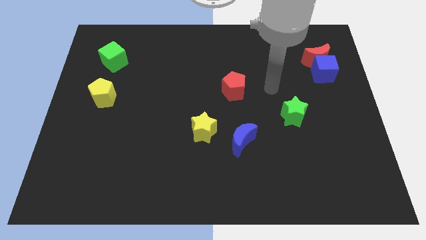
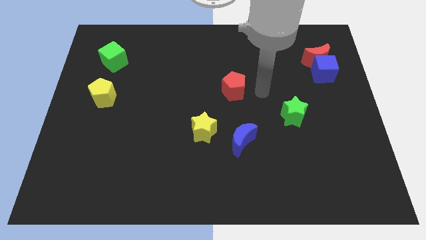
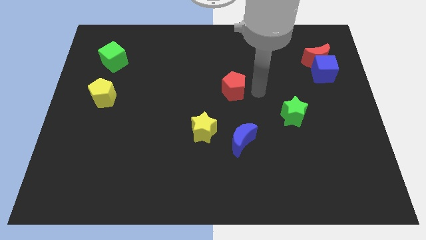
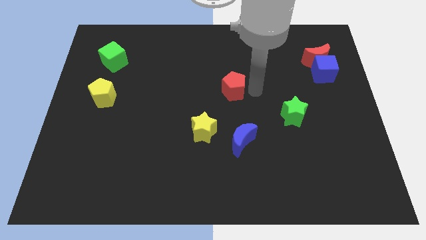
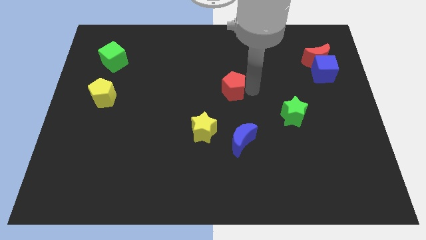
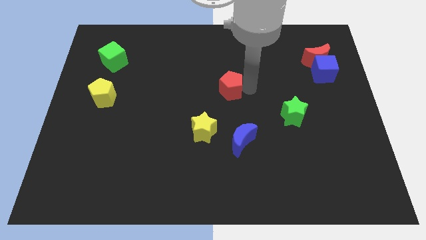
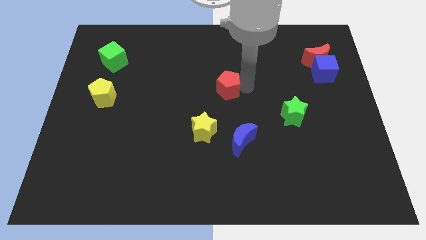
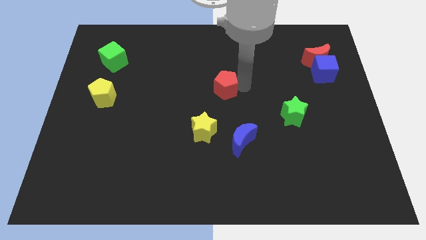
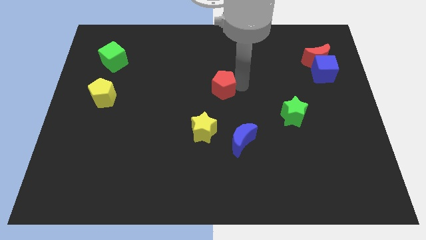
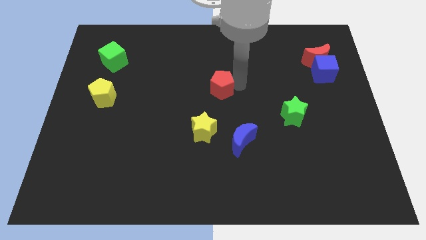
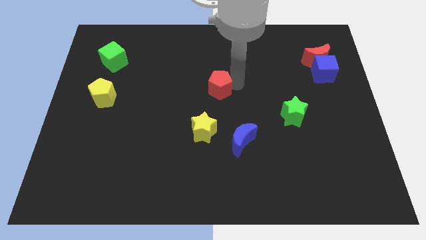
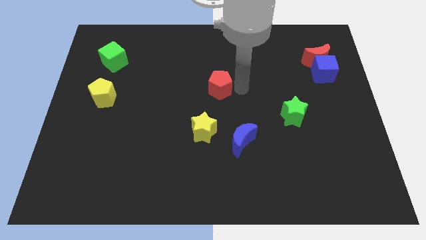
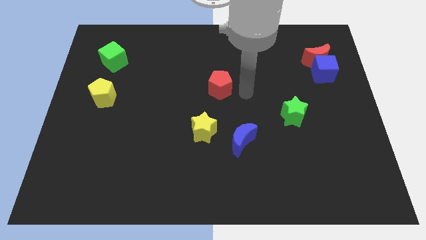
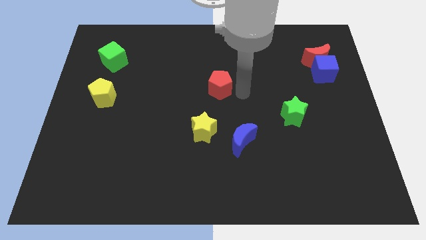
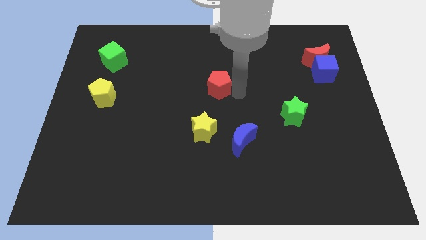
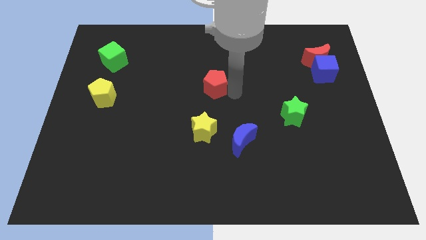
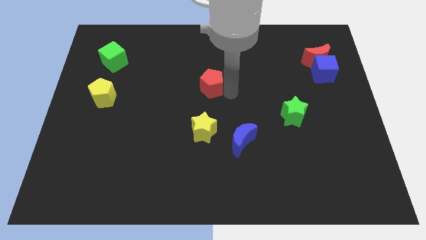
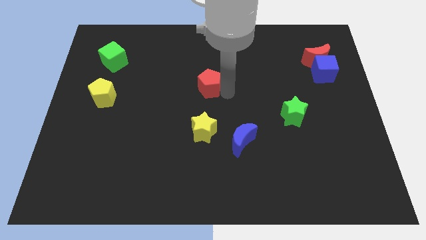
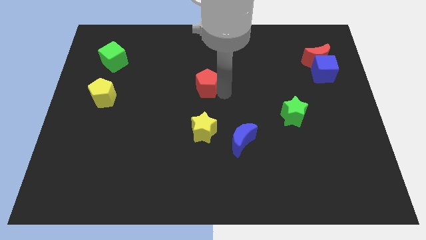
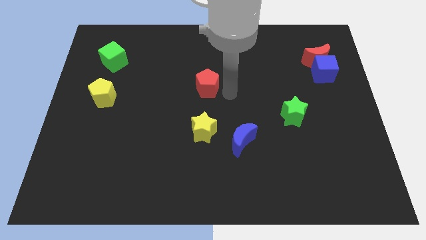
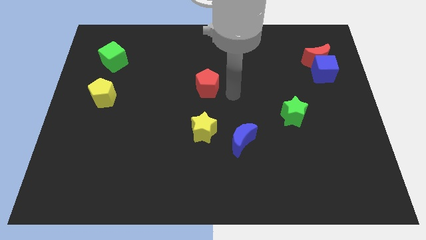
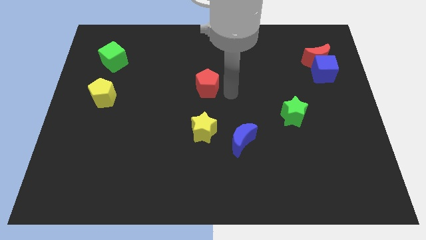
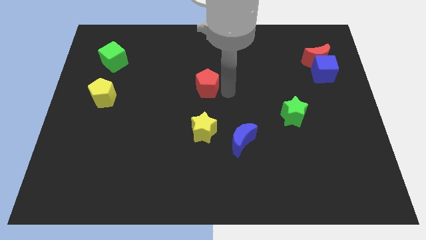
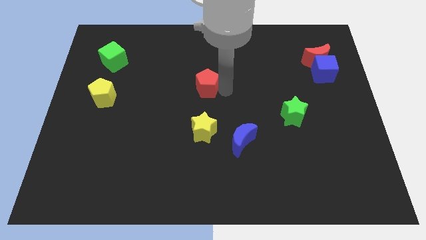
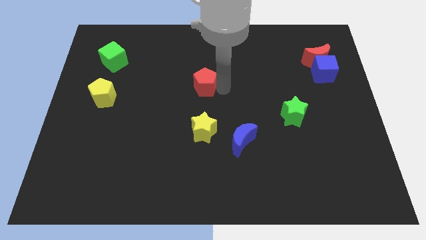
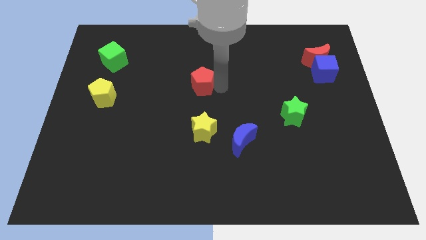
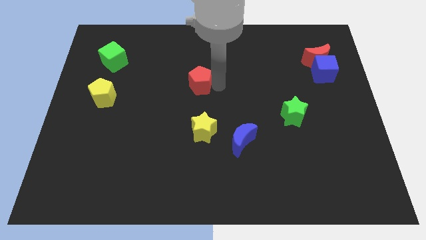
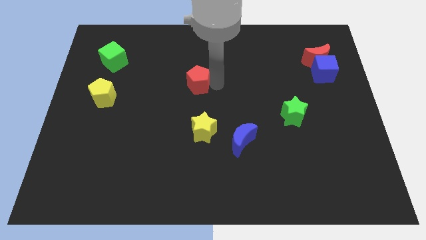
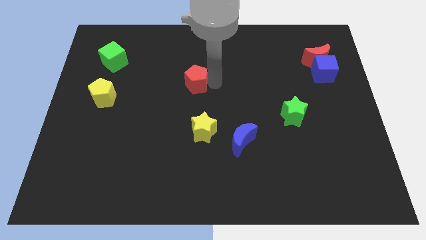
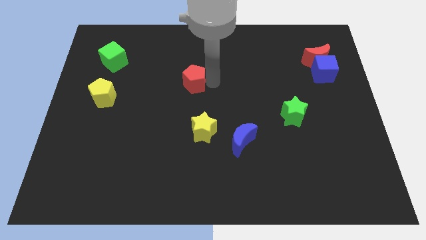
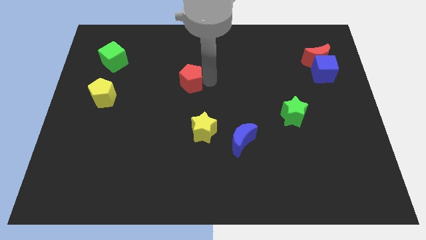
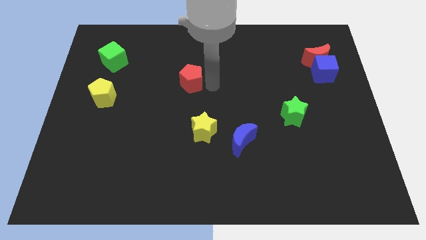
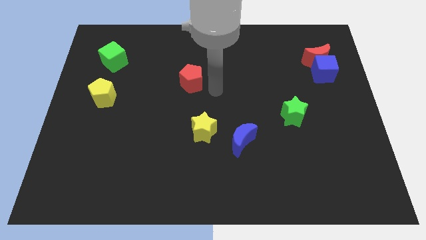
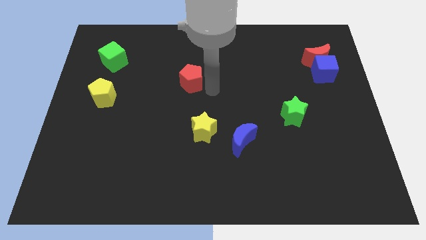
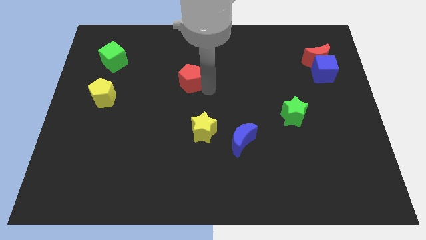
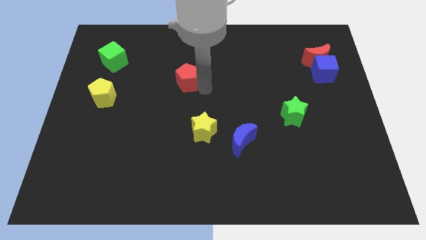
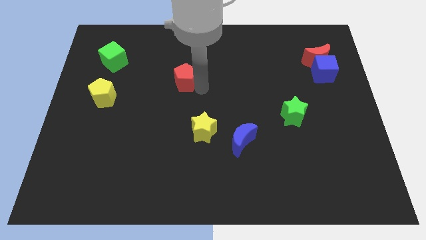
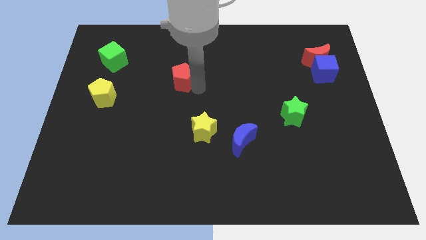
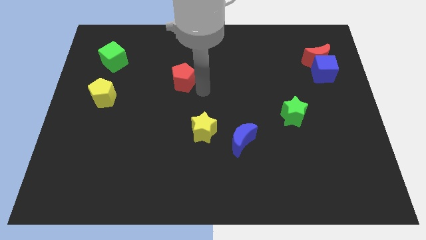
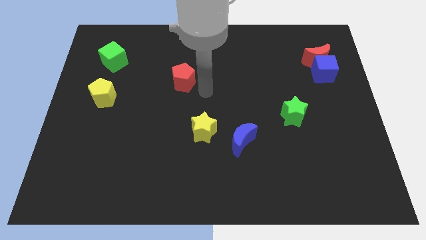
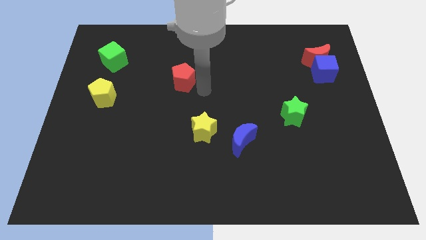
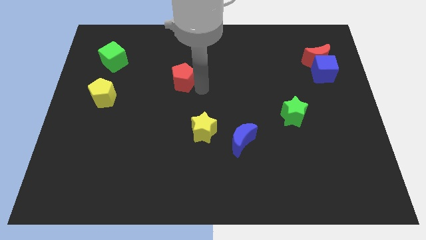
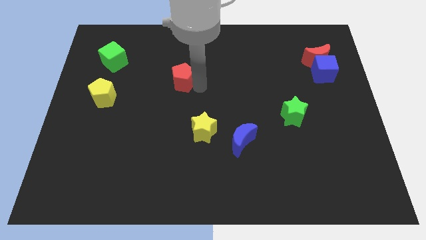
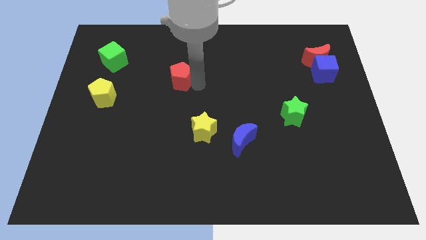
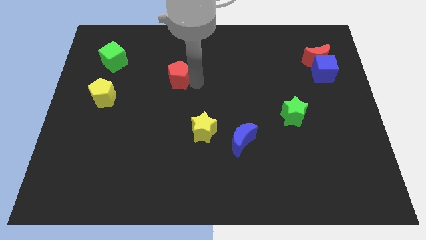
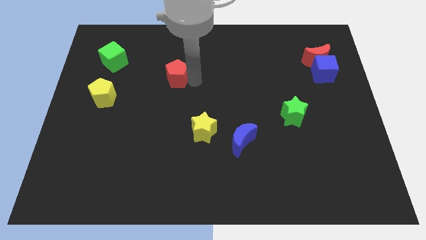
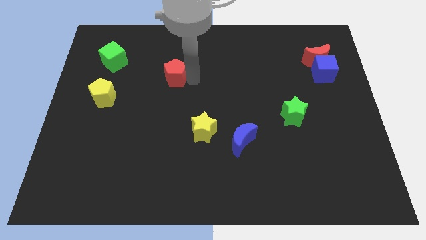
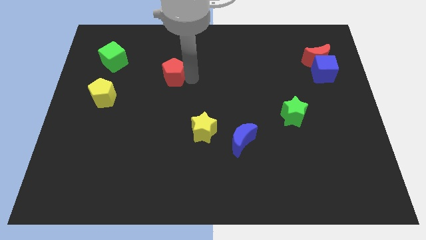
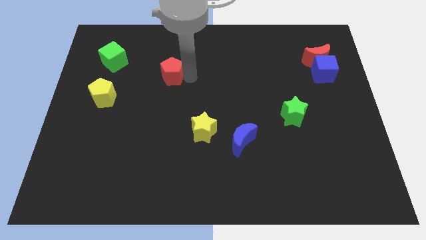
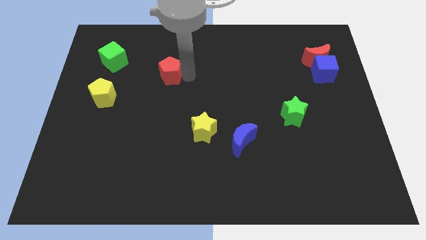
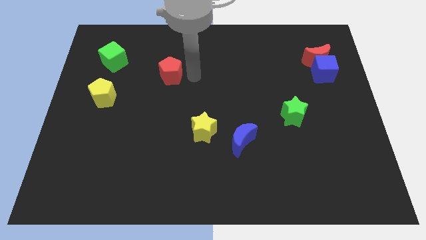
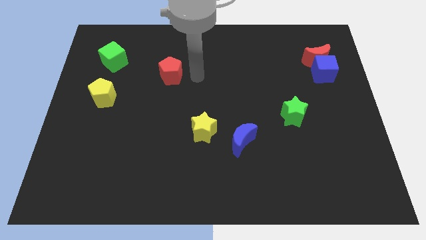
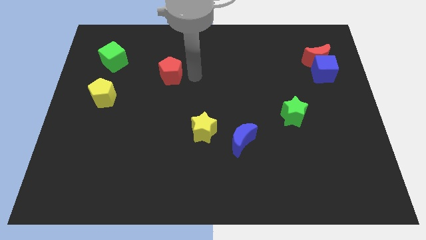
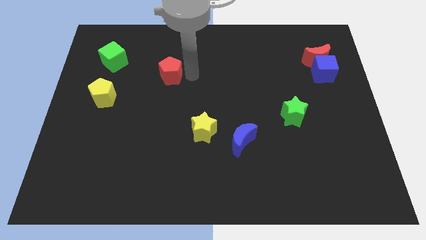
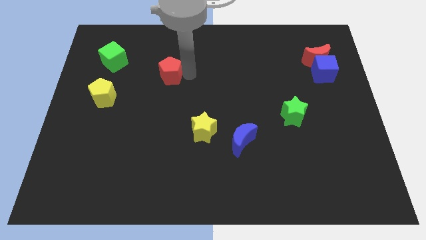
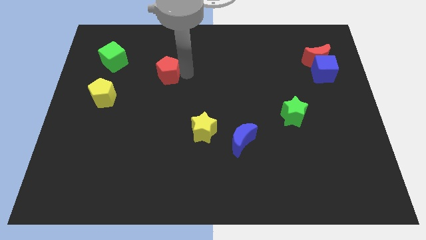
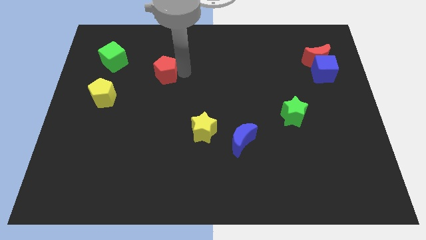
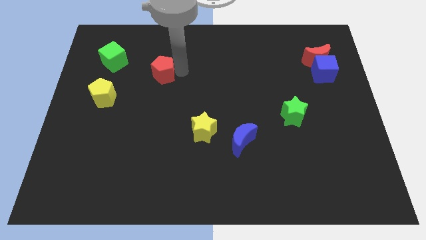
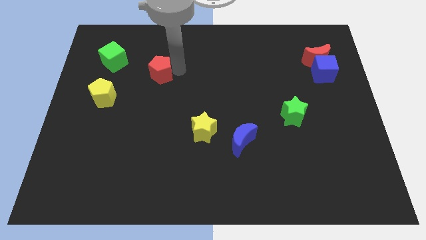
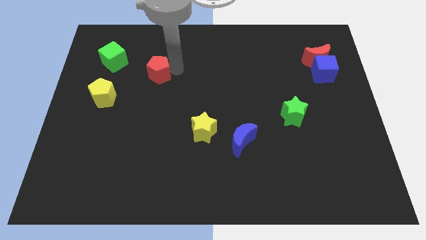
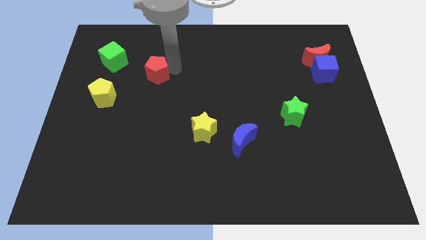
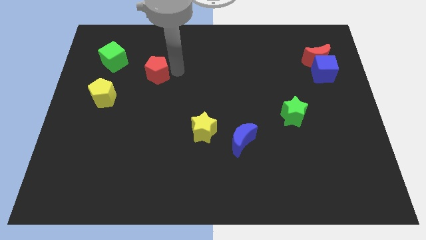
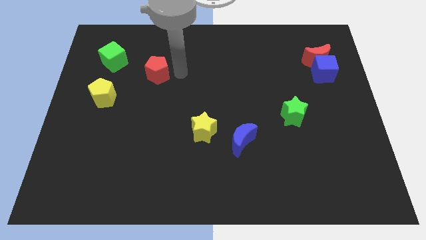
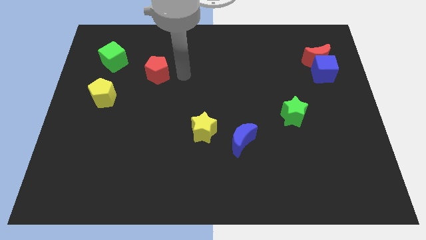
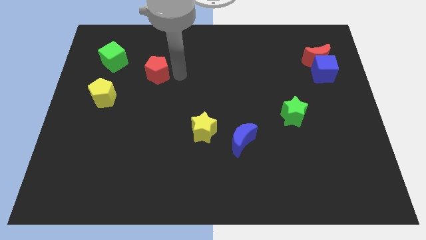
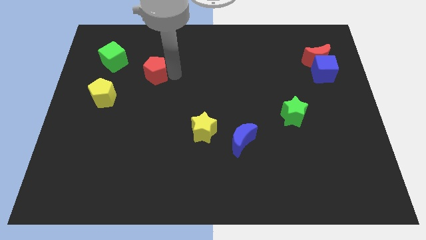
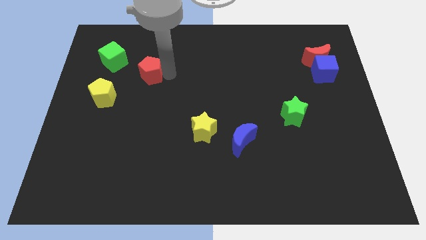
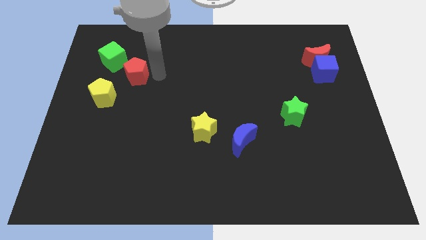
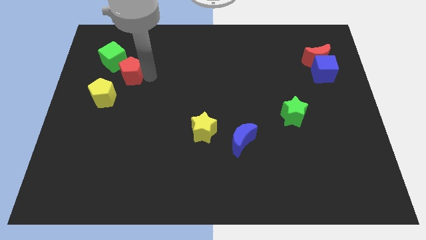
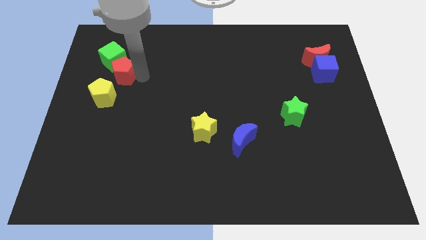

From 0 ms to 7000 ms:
push the red pentagon close to the green cube

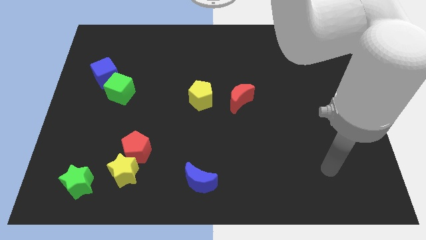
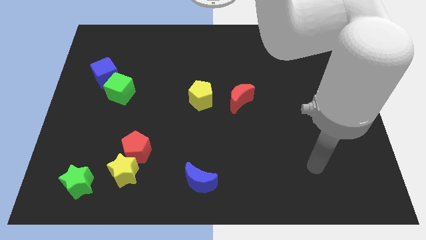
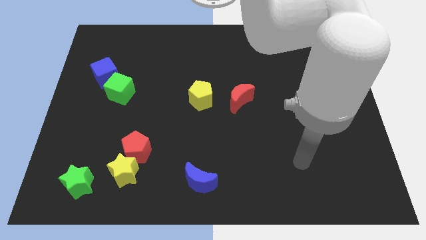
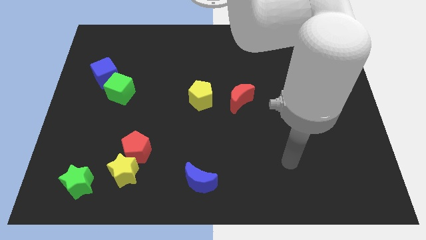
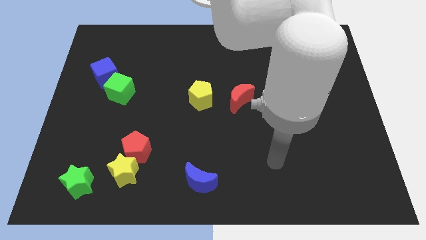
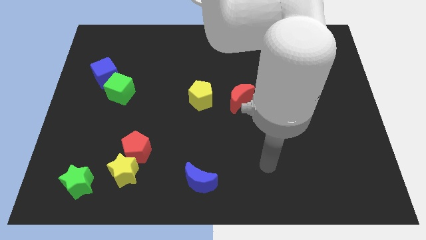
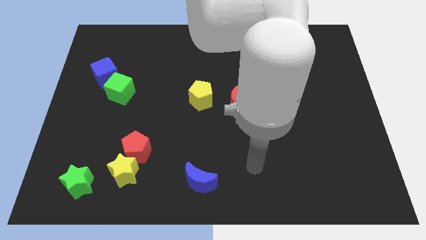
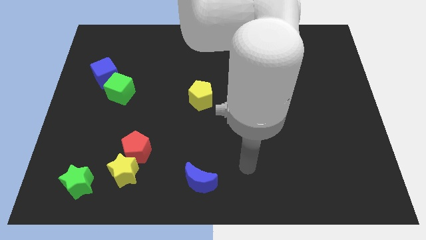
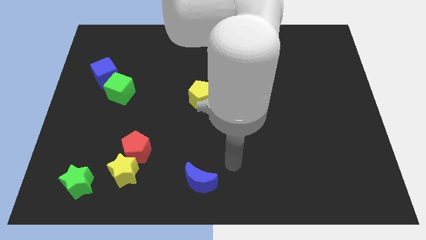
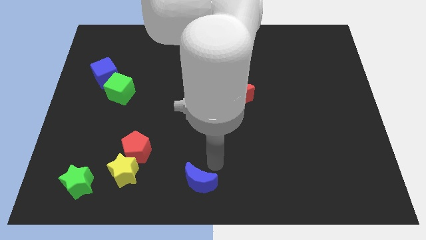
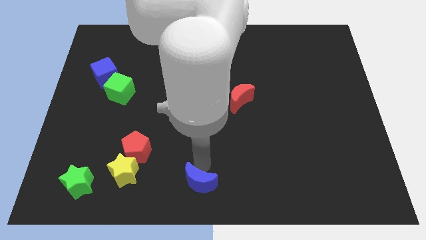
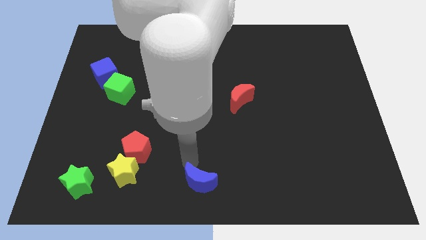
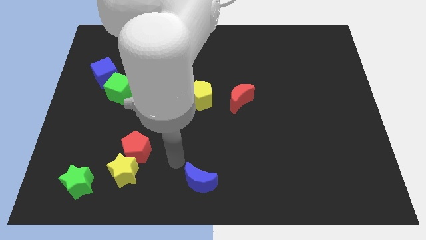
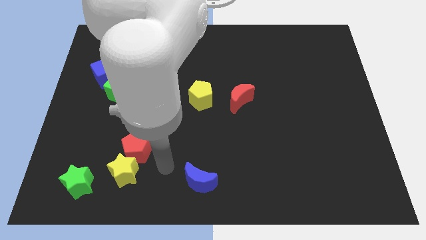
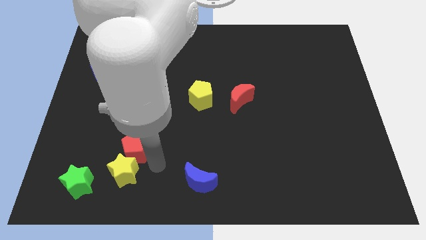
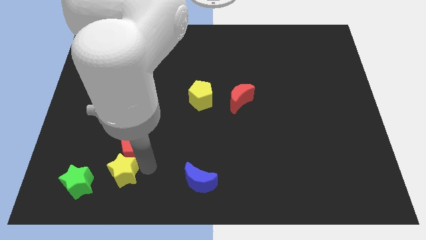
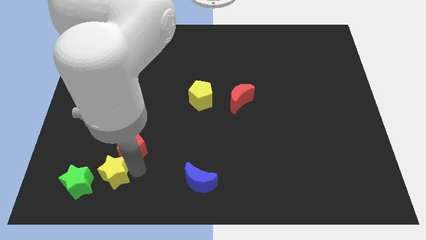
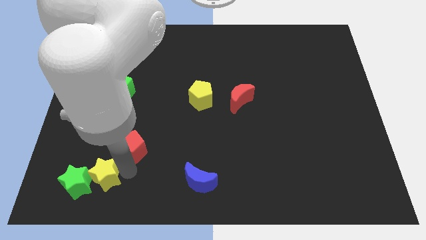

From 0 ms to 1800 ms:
slide the yellow star towards the green star
